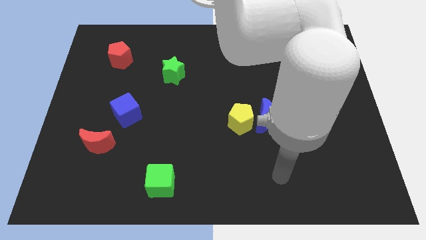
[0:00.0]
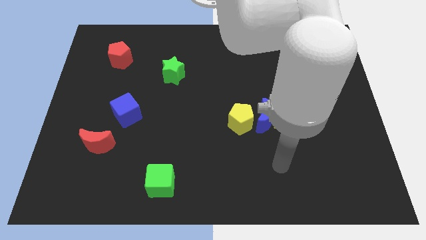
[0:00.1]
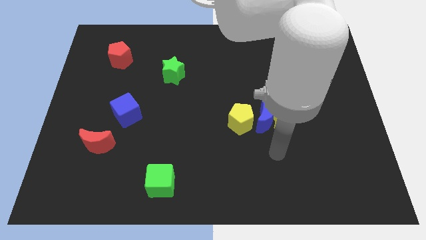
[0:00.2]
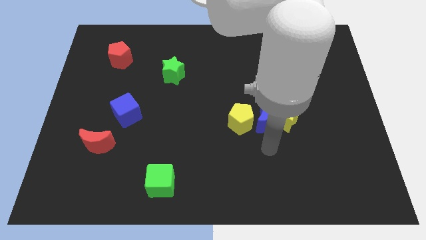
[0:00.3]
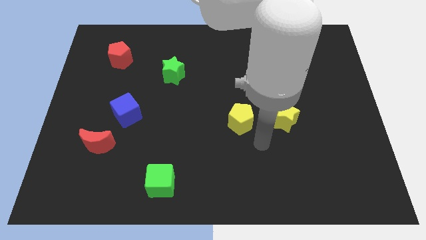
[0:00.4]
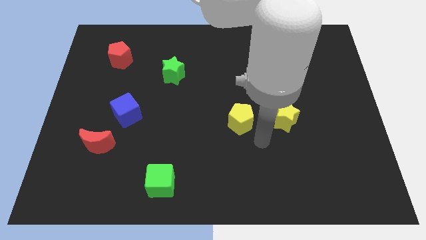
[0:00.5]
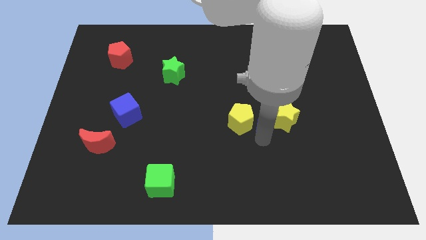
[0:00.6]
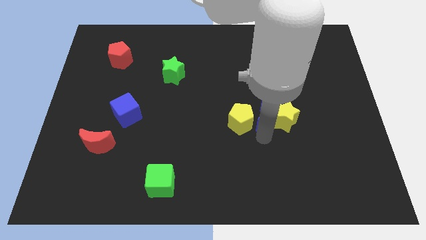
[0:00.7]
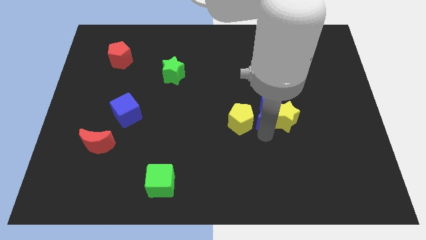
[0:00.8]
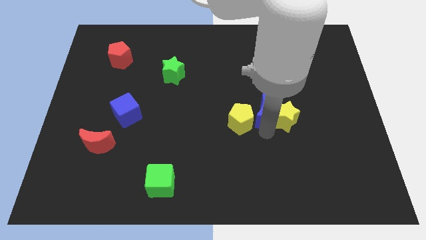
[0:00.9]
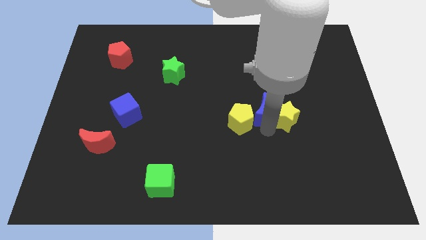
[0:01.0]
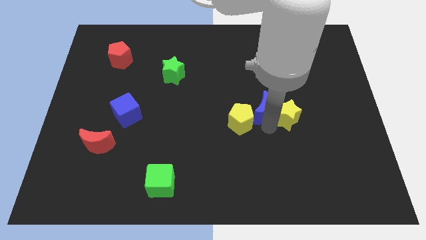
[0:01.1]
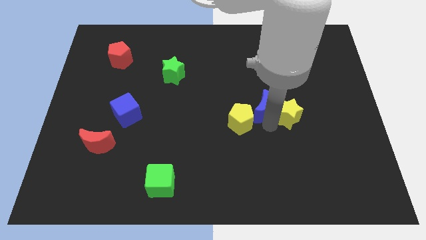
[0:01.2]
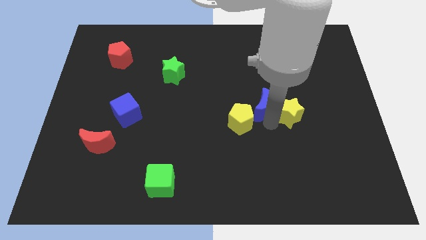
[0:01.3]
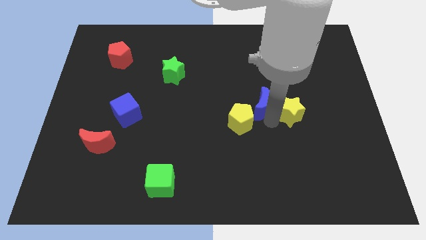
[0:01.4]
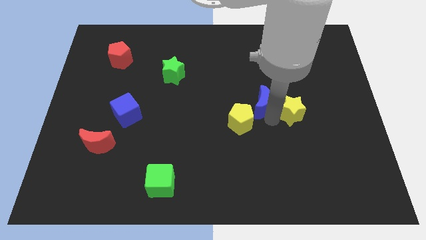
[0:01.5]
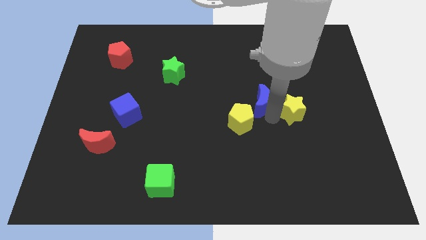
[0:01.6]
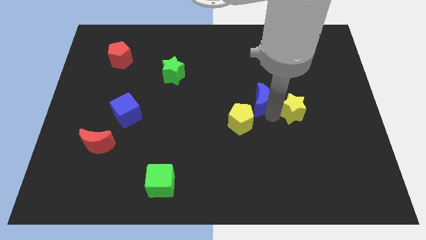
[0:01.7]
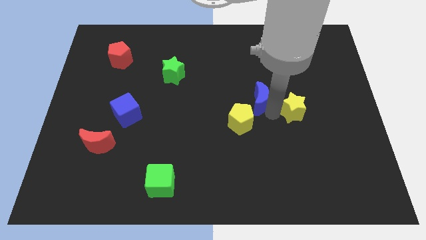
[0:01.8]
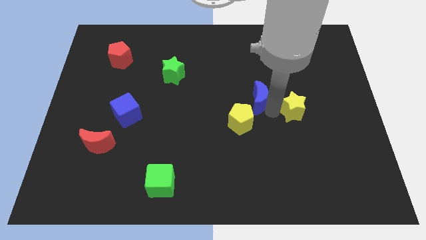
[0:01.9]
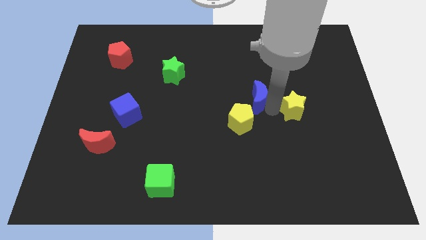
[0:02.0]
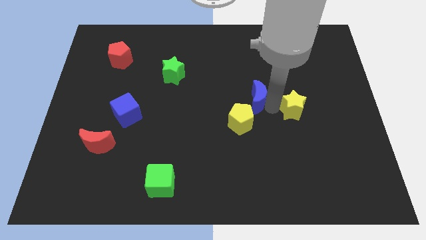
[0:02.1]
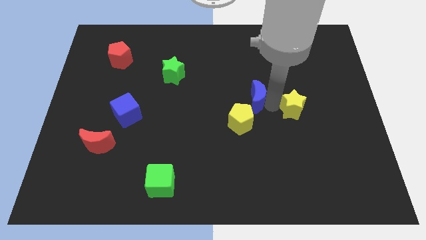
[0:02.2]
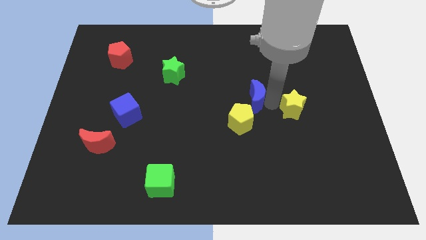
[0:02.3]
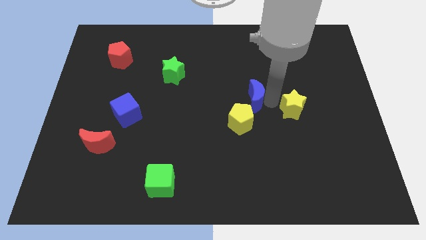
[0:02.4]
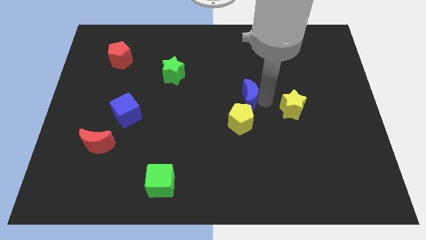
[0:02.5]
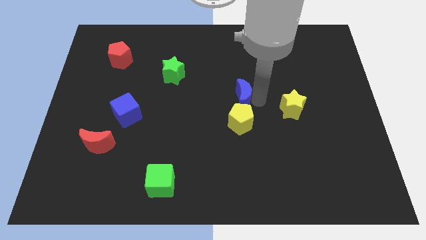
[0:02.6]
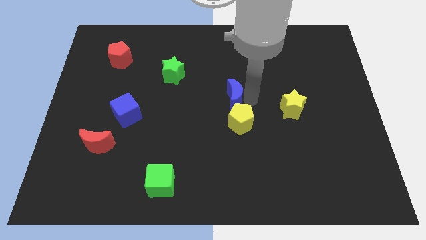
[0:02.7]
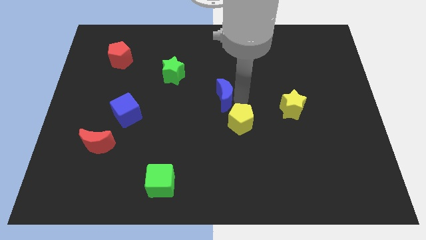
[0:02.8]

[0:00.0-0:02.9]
move the blue moon away from the yellow star and yellow pentagon

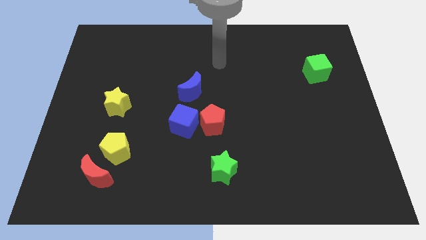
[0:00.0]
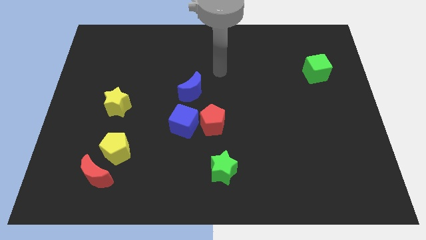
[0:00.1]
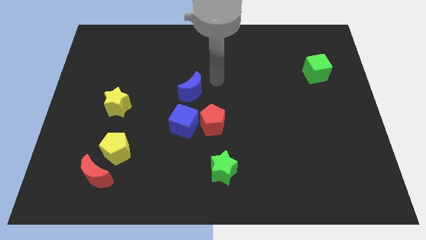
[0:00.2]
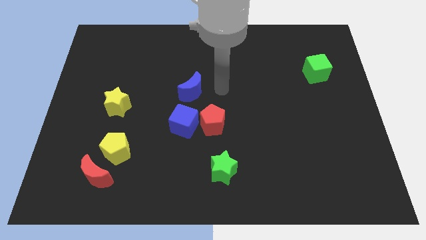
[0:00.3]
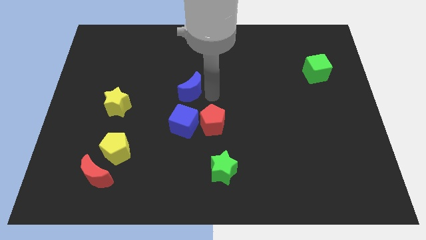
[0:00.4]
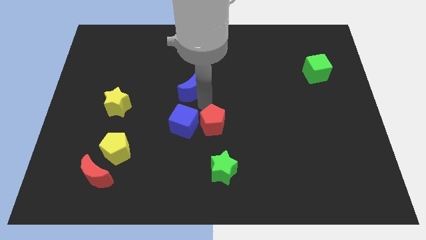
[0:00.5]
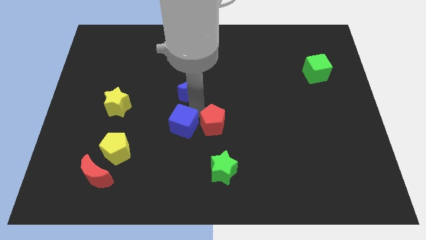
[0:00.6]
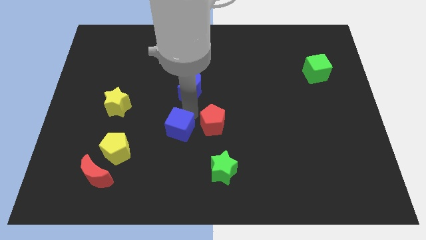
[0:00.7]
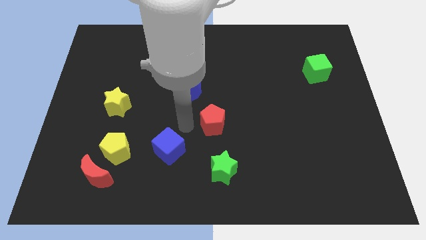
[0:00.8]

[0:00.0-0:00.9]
move the red pentagon away from the blue cube

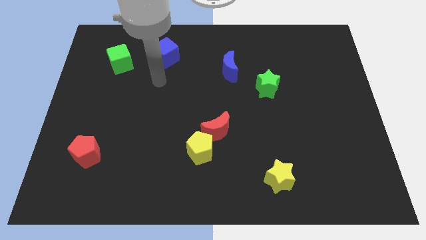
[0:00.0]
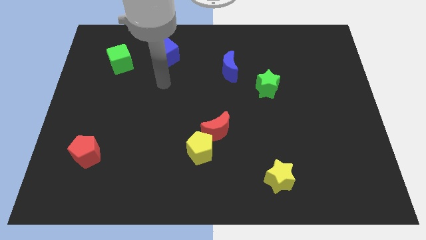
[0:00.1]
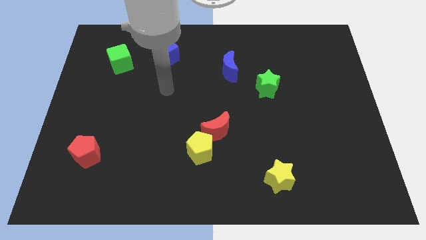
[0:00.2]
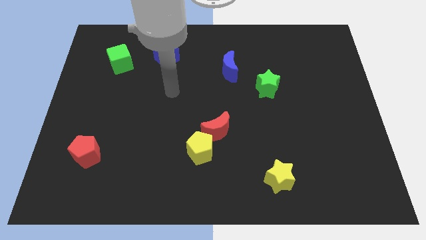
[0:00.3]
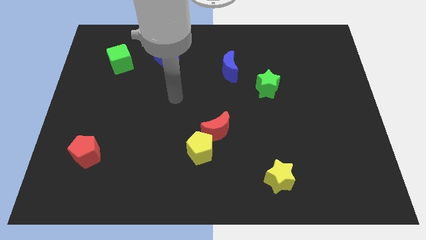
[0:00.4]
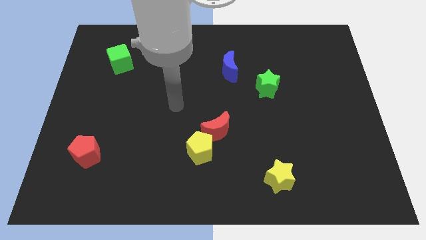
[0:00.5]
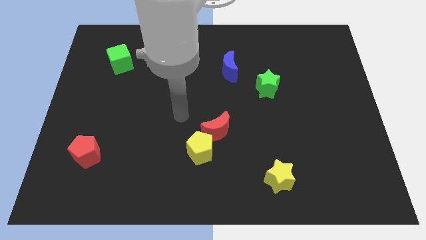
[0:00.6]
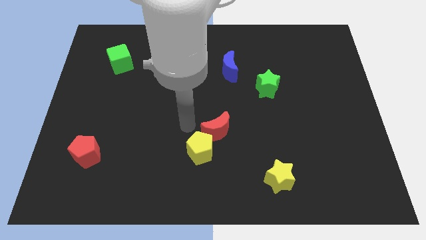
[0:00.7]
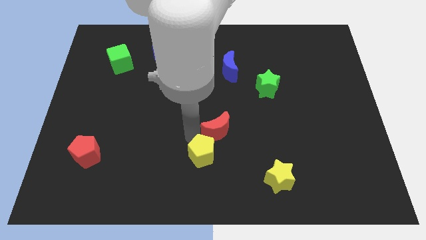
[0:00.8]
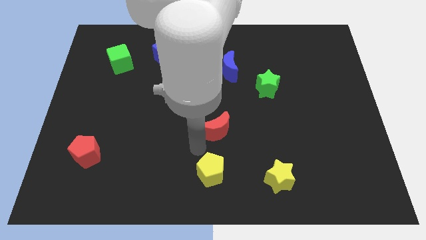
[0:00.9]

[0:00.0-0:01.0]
pull the red moon apart from the yellow pentagon

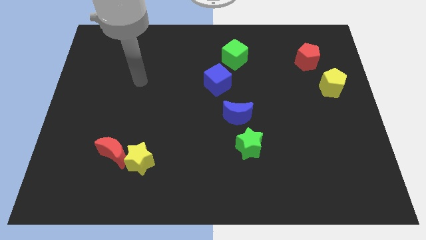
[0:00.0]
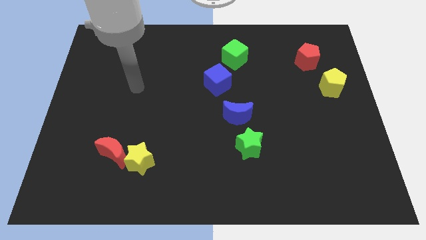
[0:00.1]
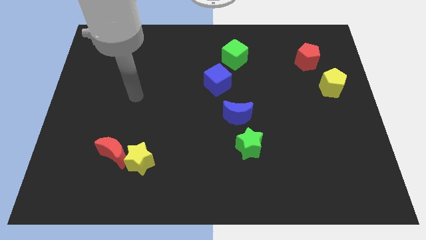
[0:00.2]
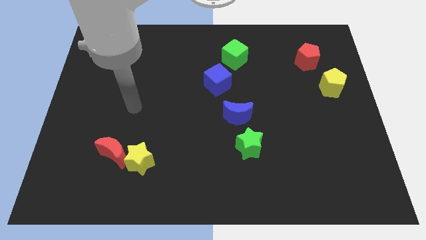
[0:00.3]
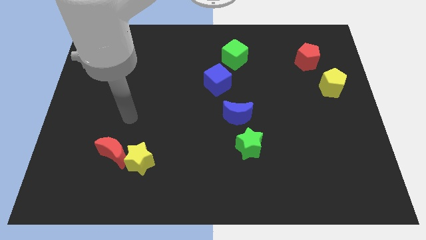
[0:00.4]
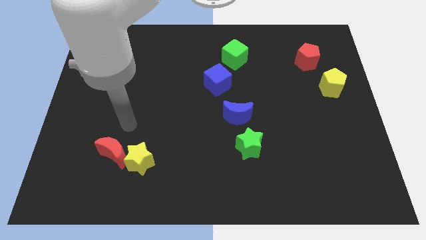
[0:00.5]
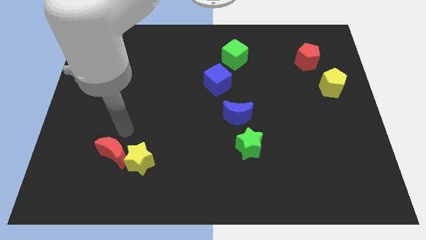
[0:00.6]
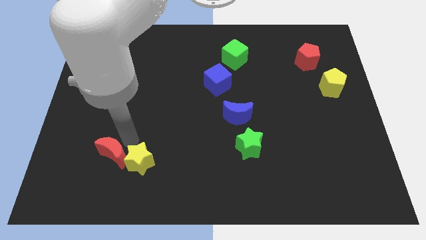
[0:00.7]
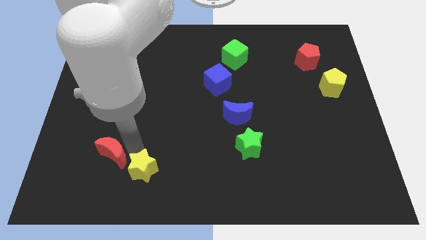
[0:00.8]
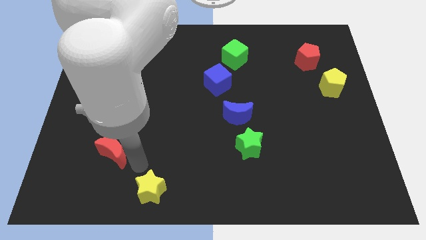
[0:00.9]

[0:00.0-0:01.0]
pull the red moon apart from the yellow star

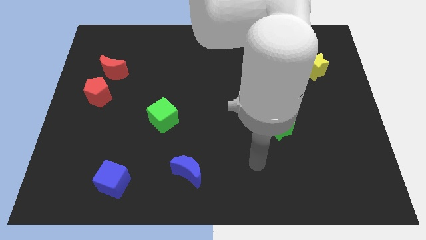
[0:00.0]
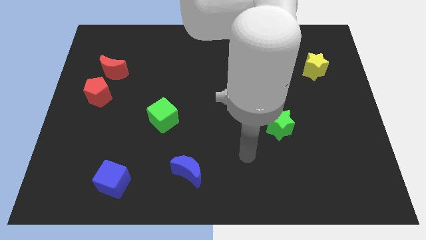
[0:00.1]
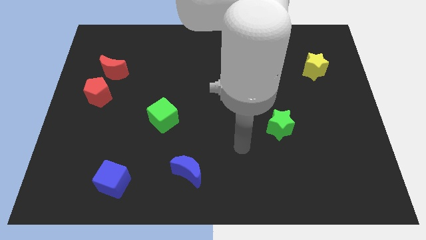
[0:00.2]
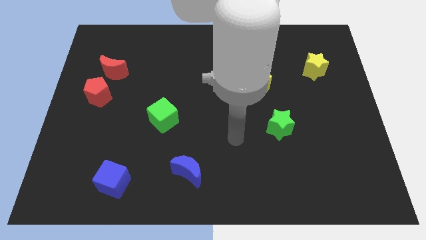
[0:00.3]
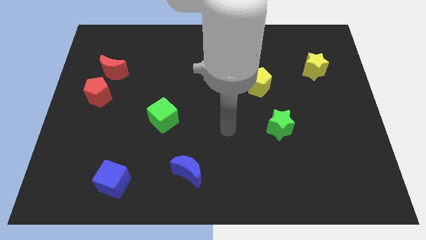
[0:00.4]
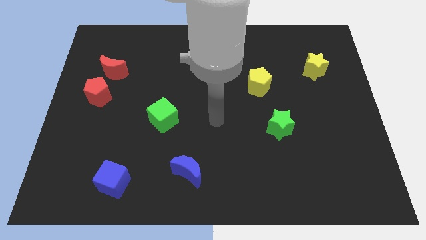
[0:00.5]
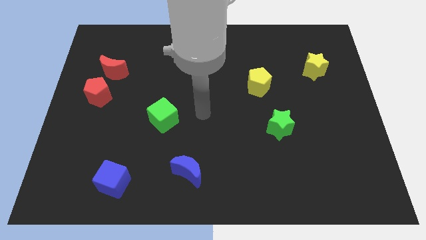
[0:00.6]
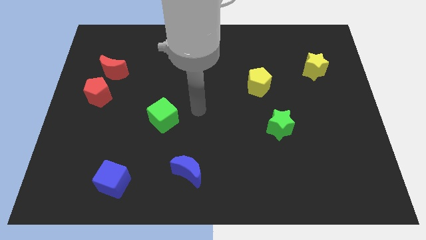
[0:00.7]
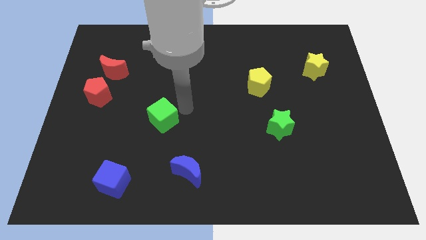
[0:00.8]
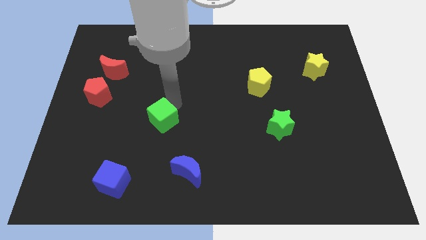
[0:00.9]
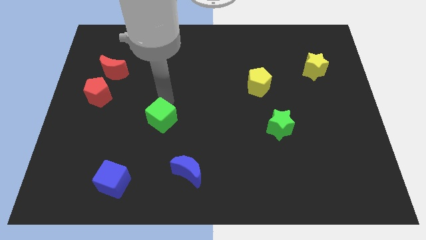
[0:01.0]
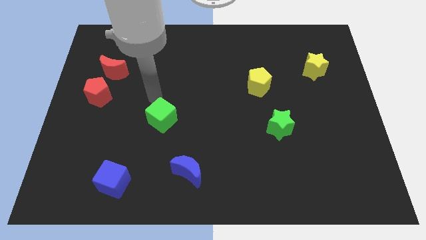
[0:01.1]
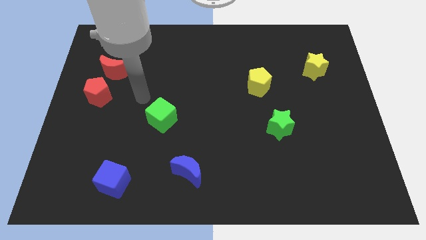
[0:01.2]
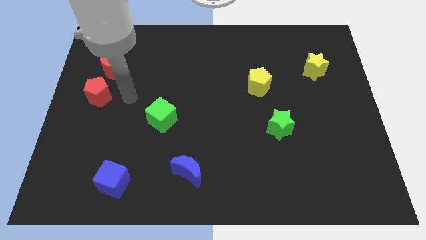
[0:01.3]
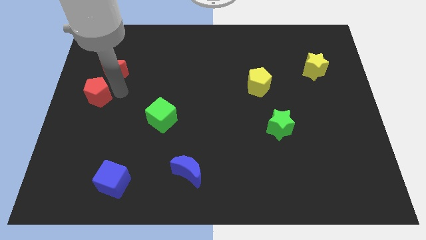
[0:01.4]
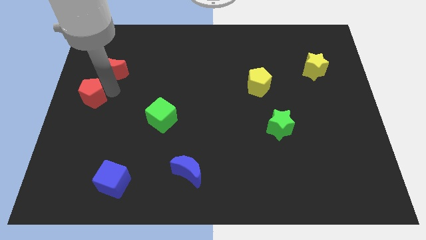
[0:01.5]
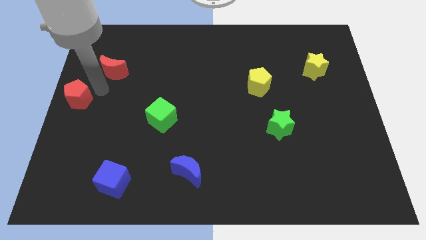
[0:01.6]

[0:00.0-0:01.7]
pull the red moon apart from the red pentagon

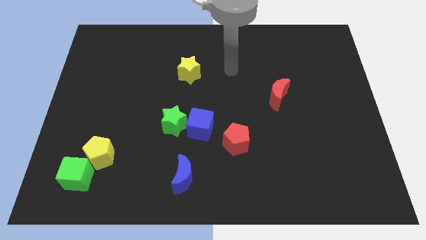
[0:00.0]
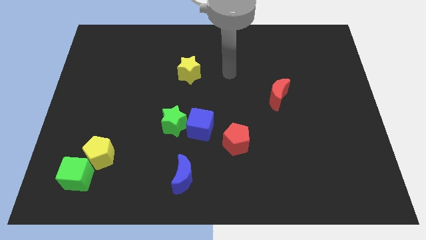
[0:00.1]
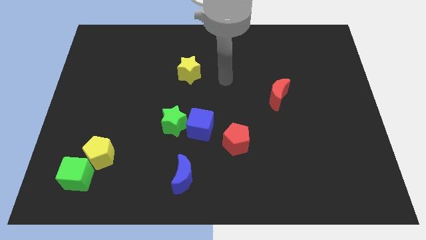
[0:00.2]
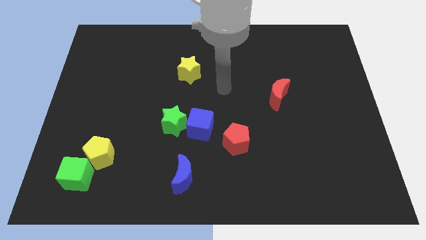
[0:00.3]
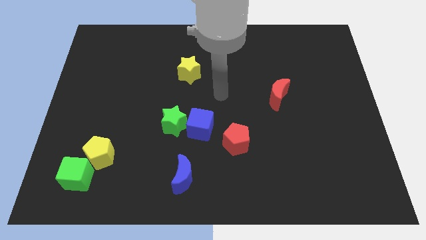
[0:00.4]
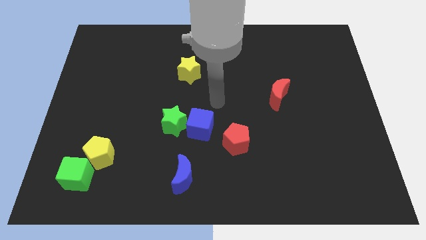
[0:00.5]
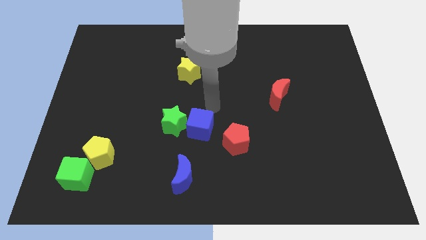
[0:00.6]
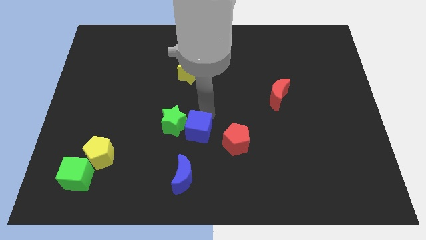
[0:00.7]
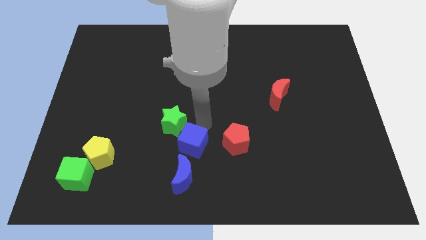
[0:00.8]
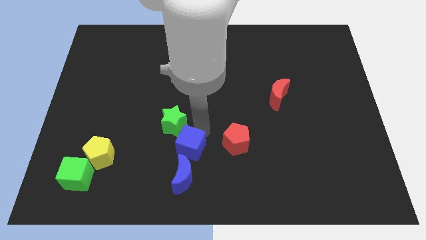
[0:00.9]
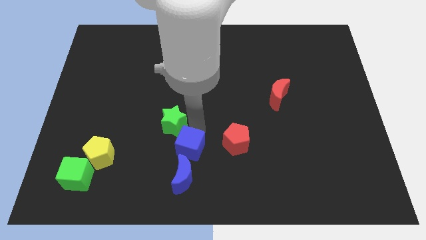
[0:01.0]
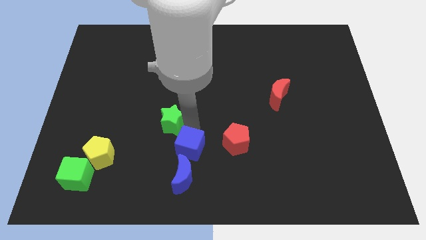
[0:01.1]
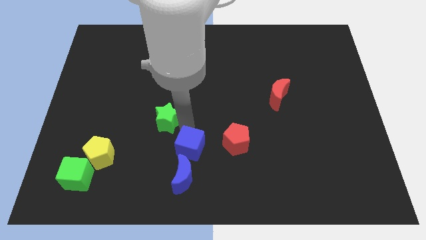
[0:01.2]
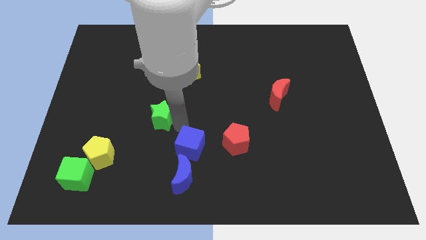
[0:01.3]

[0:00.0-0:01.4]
separate the green star from the blue cube

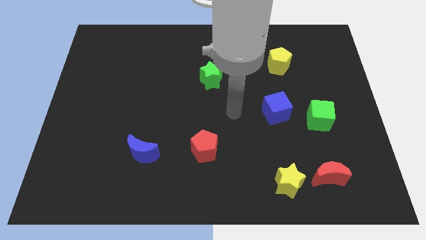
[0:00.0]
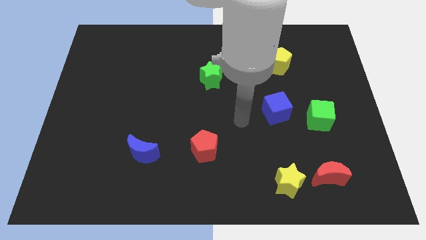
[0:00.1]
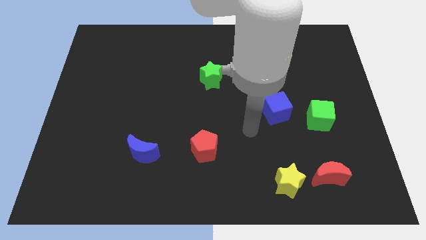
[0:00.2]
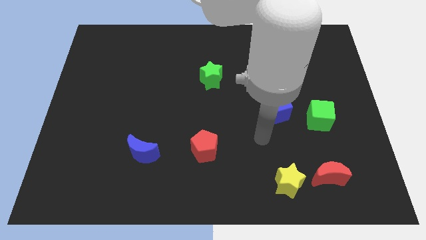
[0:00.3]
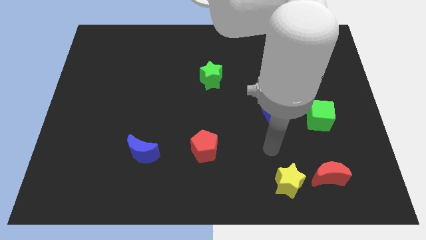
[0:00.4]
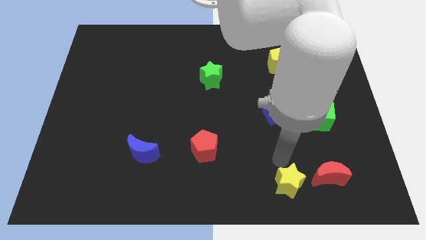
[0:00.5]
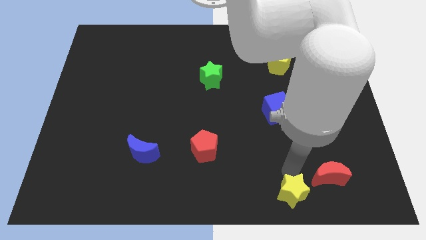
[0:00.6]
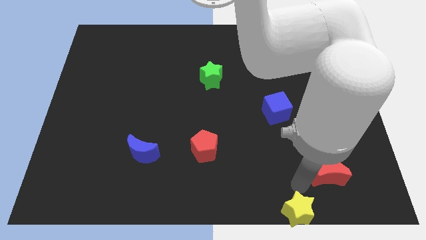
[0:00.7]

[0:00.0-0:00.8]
separate the red moon from the yellow star
